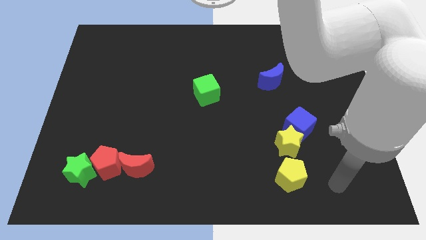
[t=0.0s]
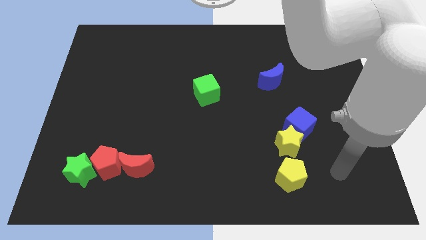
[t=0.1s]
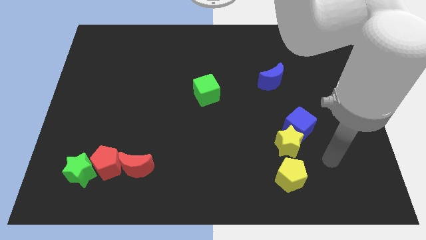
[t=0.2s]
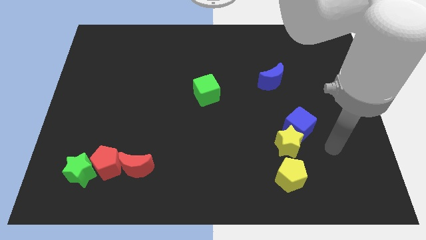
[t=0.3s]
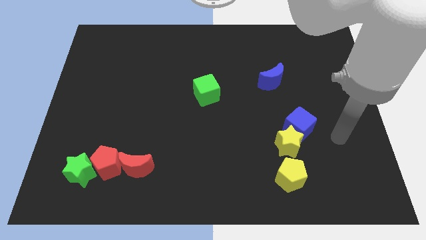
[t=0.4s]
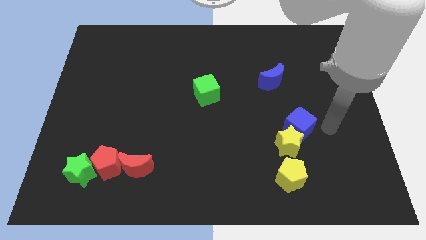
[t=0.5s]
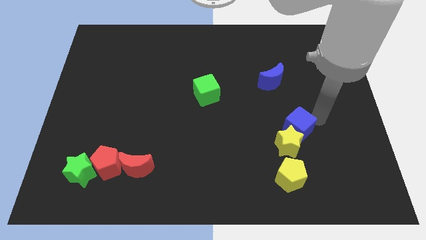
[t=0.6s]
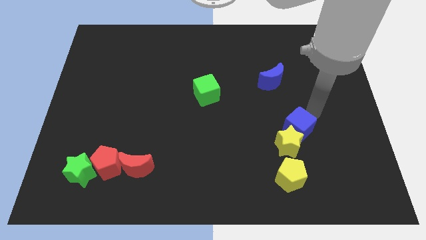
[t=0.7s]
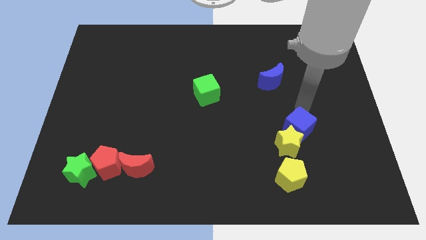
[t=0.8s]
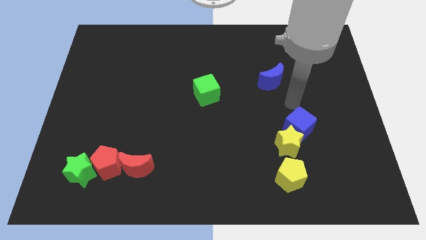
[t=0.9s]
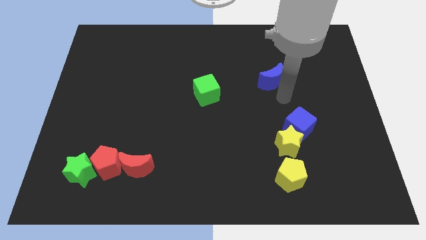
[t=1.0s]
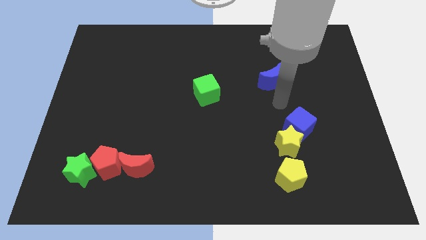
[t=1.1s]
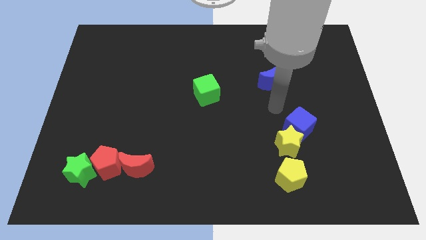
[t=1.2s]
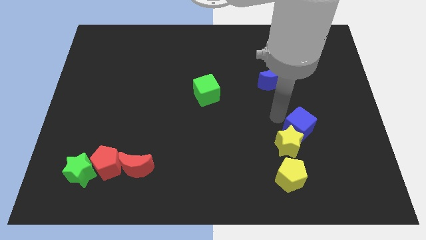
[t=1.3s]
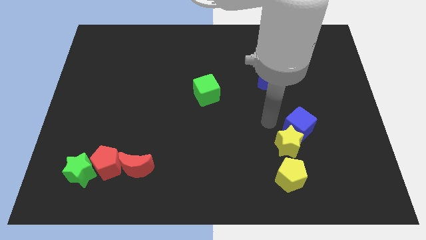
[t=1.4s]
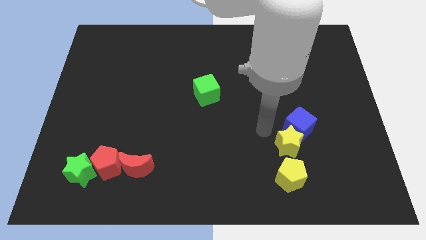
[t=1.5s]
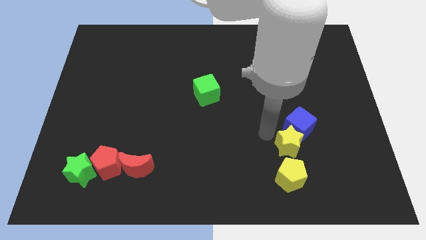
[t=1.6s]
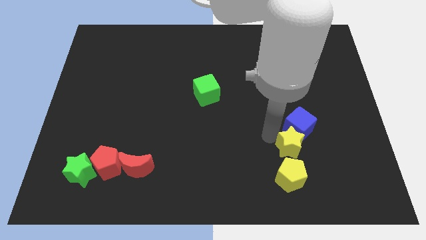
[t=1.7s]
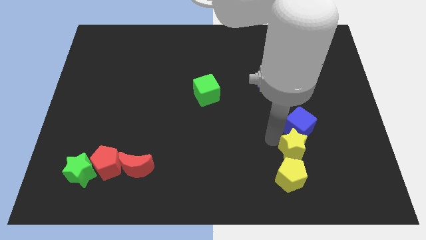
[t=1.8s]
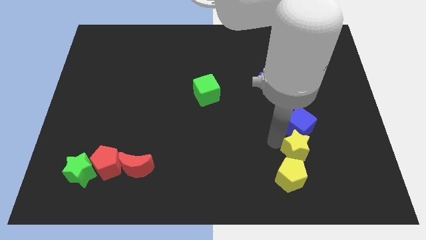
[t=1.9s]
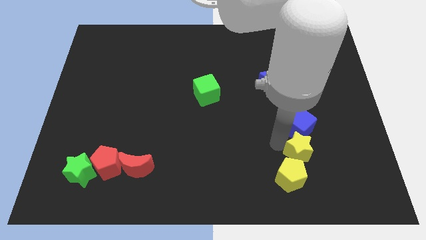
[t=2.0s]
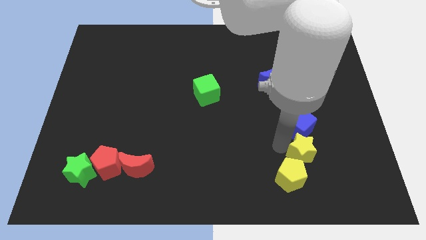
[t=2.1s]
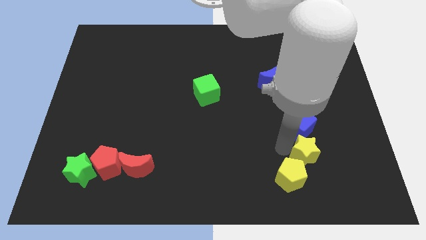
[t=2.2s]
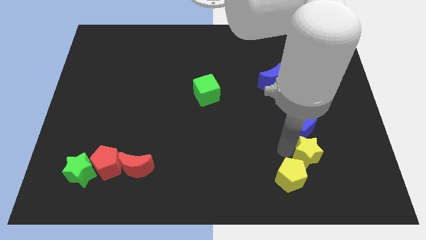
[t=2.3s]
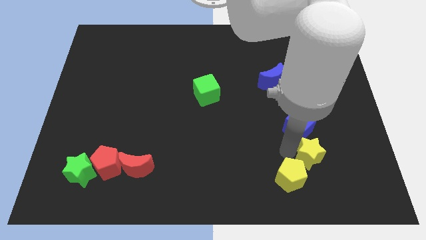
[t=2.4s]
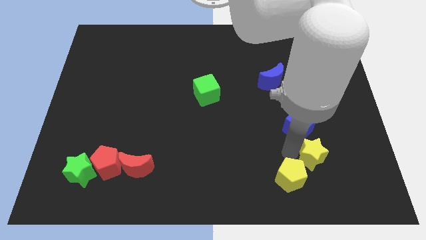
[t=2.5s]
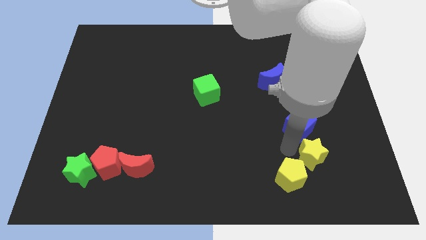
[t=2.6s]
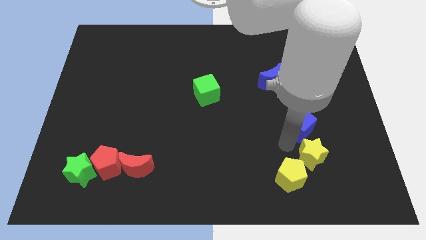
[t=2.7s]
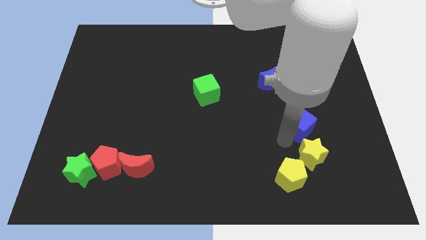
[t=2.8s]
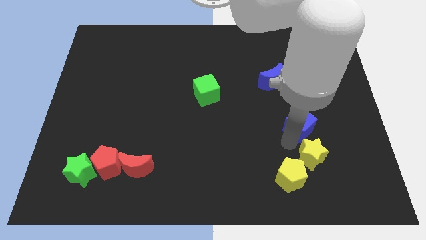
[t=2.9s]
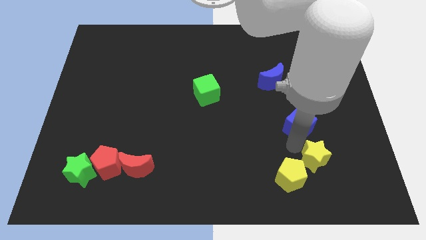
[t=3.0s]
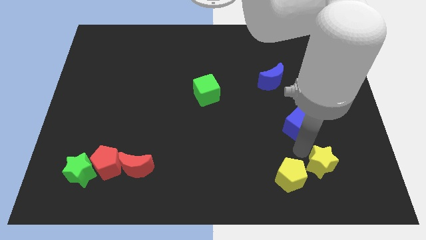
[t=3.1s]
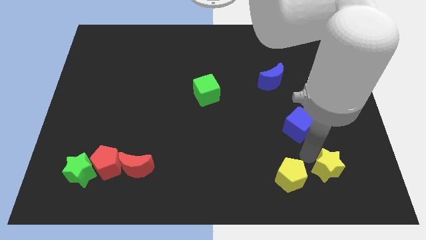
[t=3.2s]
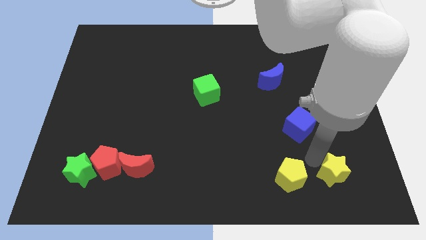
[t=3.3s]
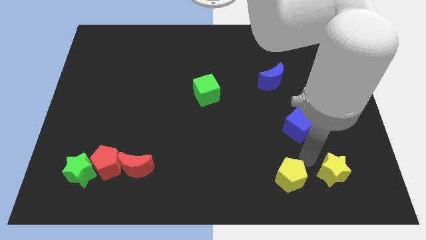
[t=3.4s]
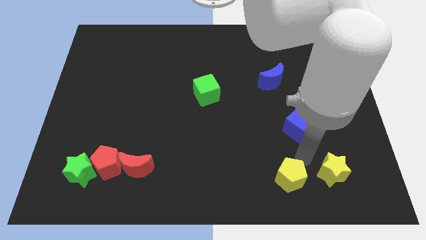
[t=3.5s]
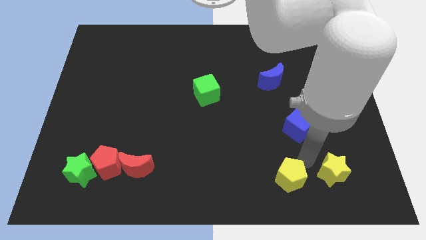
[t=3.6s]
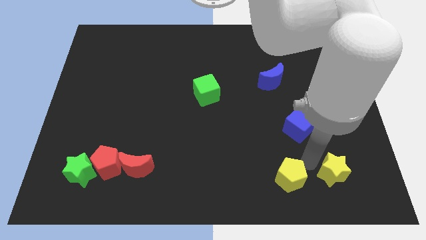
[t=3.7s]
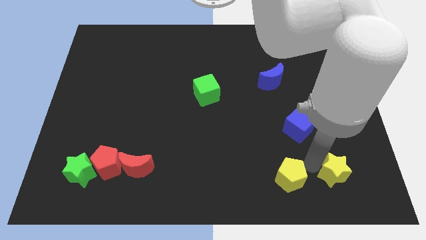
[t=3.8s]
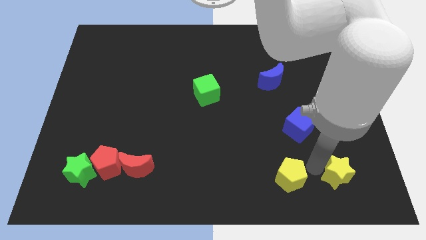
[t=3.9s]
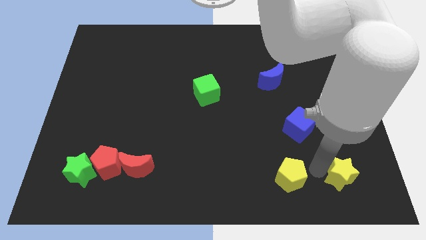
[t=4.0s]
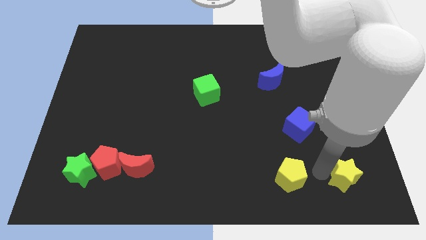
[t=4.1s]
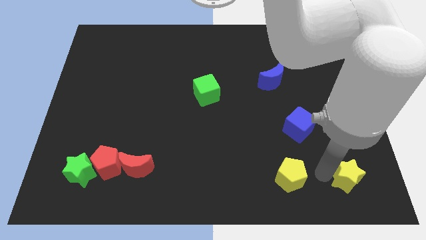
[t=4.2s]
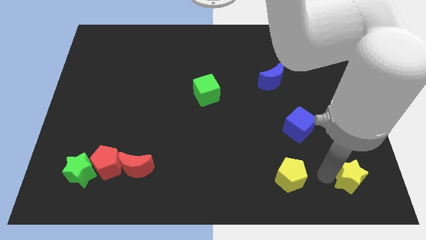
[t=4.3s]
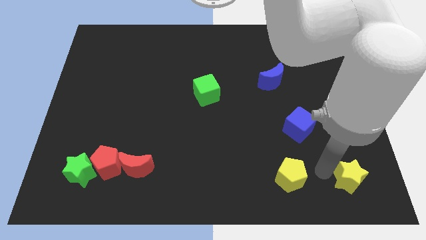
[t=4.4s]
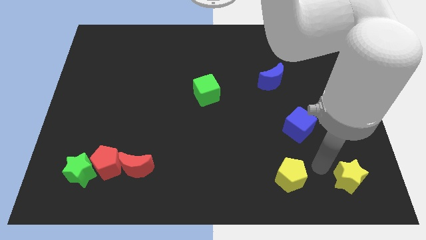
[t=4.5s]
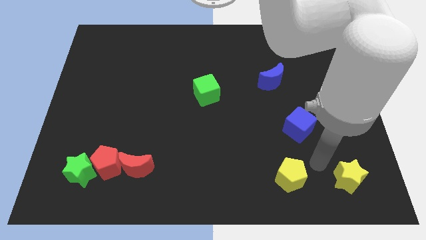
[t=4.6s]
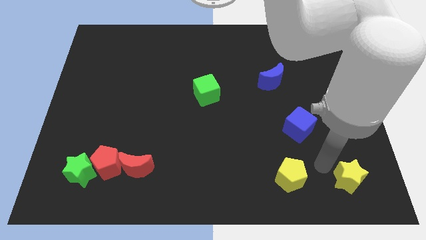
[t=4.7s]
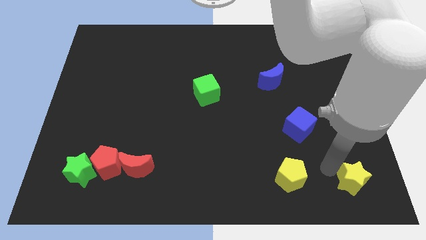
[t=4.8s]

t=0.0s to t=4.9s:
push the yellow star to the bottom right

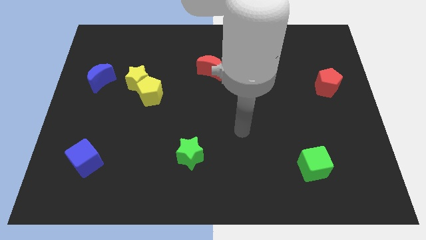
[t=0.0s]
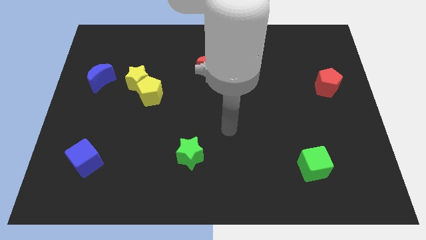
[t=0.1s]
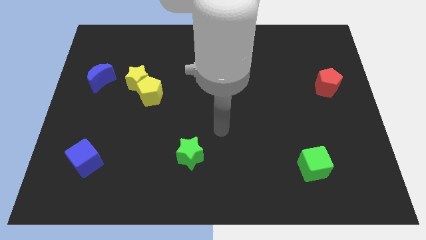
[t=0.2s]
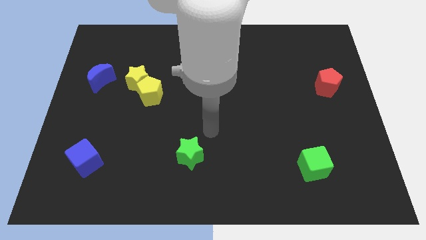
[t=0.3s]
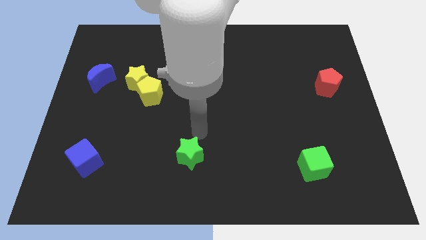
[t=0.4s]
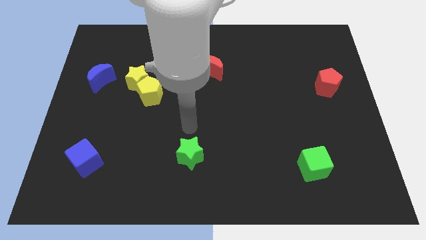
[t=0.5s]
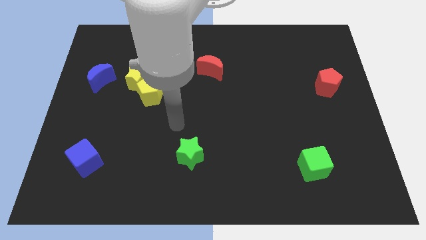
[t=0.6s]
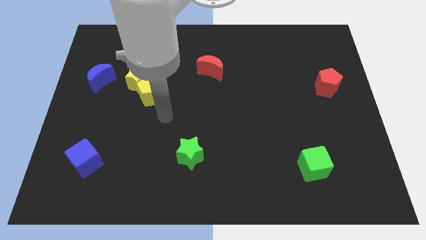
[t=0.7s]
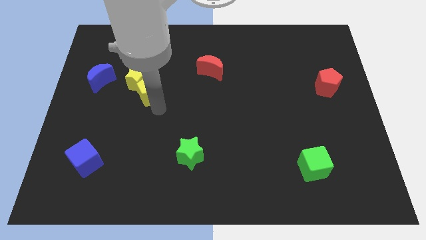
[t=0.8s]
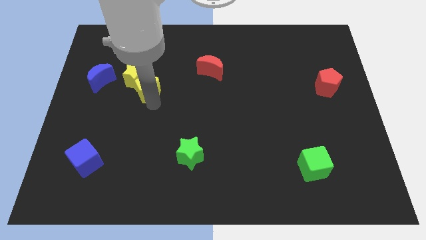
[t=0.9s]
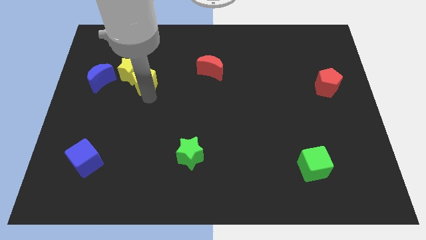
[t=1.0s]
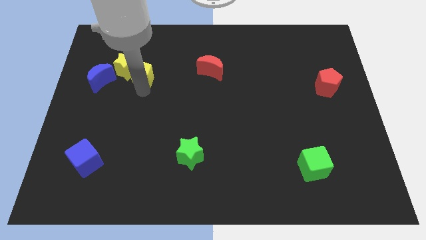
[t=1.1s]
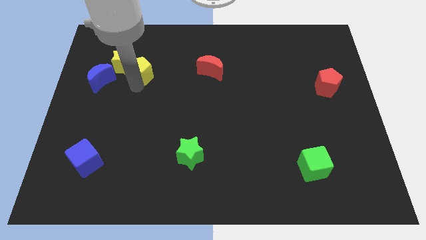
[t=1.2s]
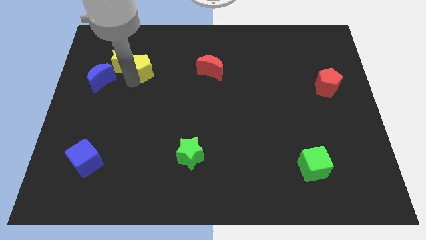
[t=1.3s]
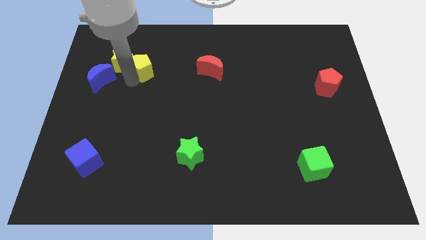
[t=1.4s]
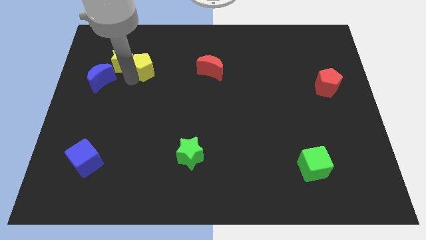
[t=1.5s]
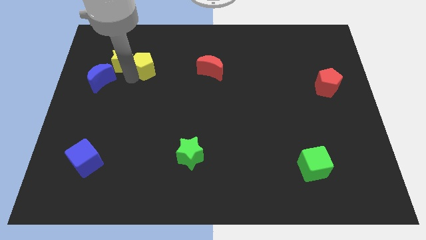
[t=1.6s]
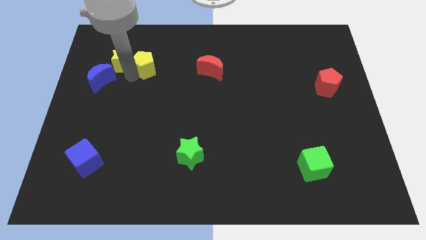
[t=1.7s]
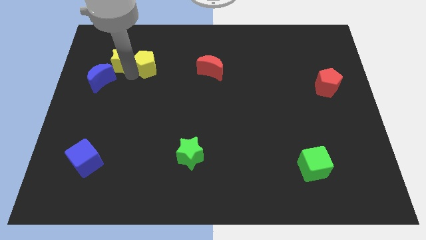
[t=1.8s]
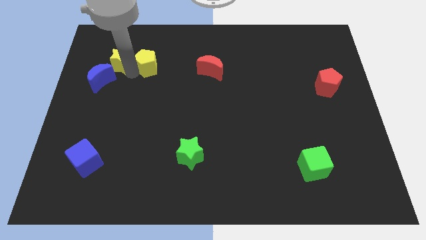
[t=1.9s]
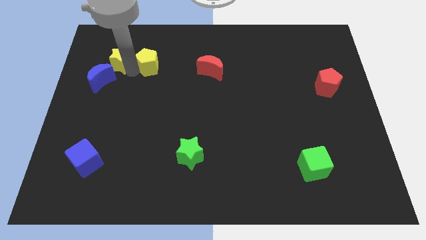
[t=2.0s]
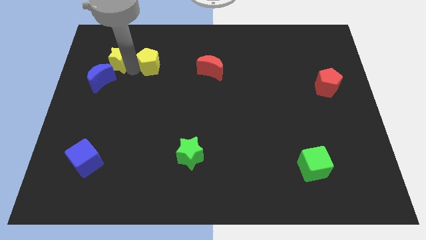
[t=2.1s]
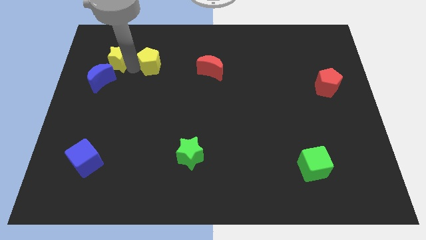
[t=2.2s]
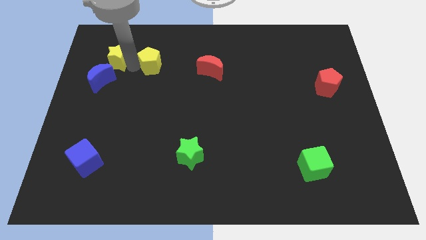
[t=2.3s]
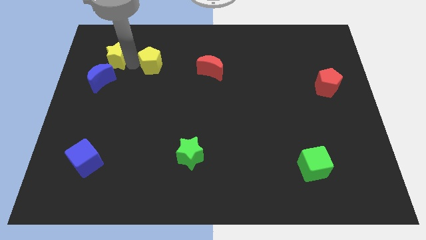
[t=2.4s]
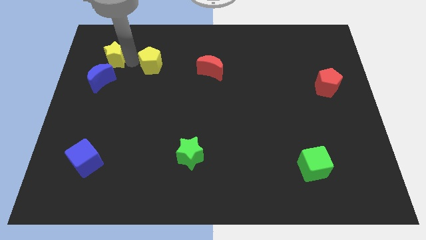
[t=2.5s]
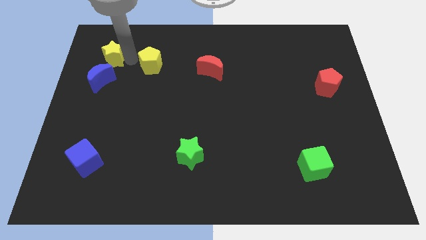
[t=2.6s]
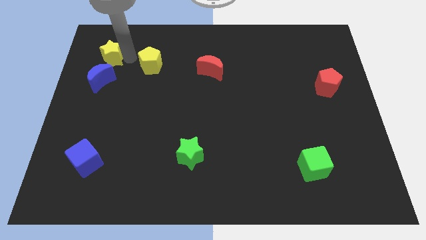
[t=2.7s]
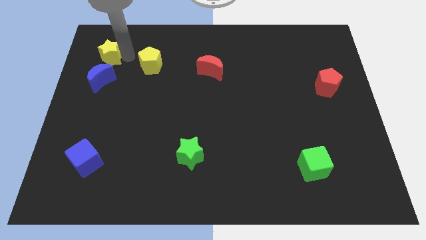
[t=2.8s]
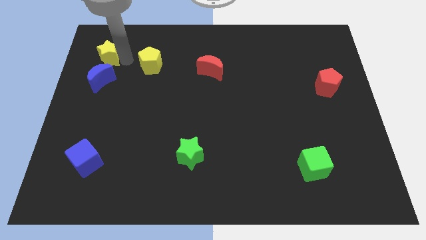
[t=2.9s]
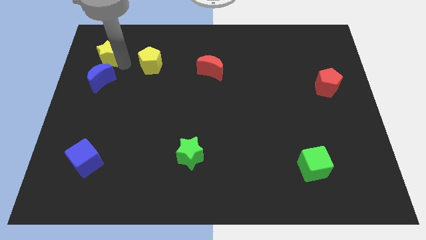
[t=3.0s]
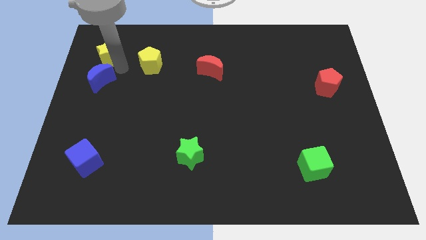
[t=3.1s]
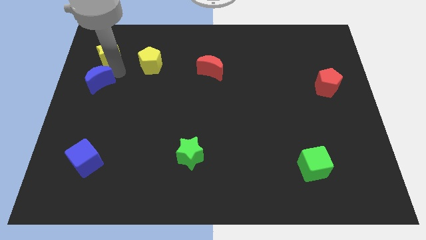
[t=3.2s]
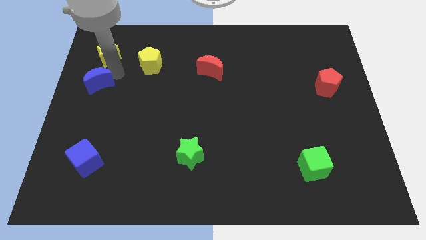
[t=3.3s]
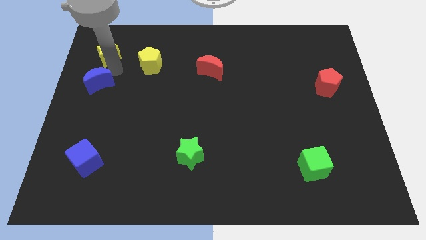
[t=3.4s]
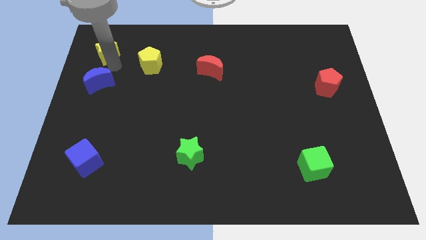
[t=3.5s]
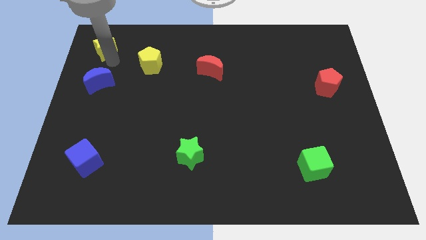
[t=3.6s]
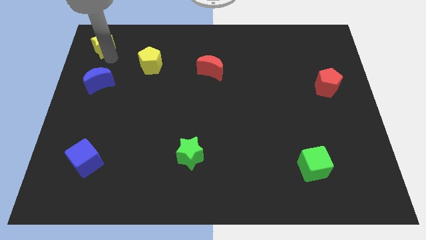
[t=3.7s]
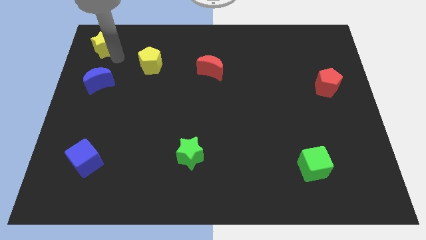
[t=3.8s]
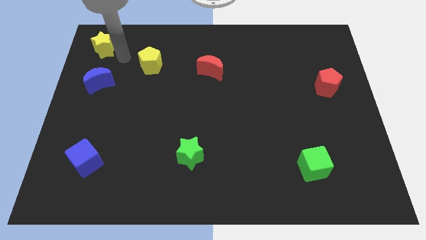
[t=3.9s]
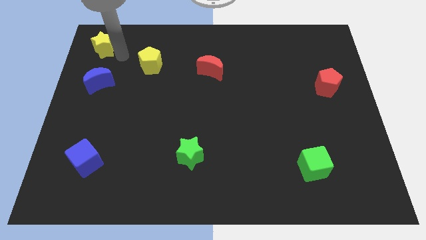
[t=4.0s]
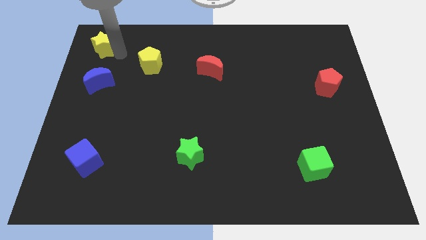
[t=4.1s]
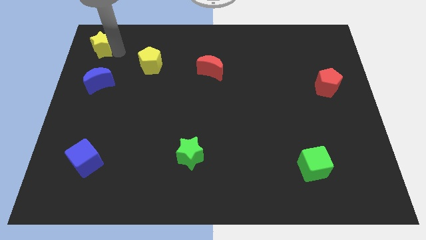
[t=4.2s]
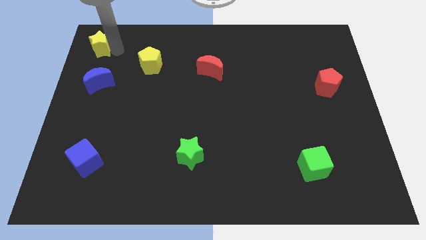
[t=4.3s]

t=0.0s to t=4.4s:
push the yellow star to the top left of the board
